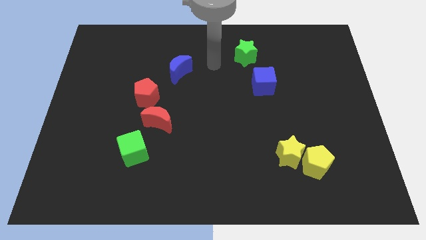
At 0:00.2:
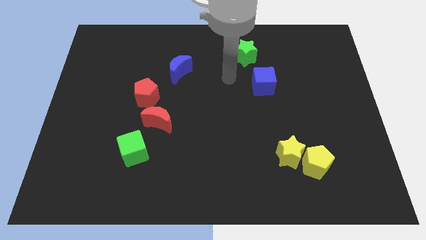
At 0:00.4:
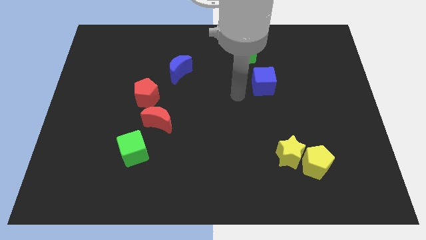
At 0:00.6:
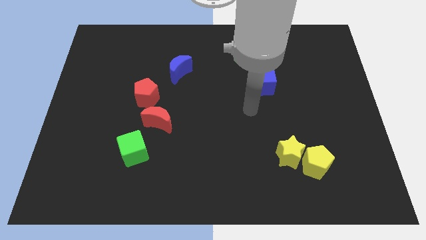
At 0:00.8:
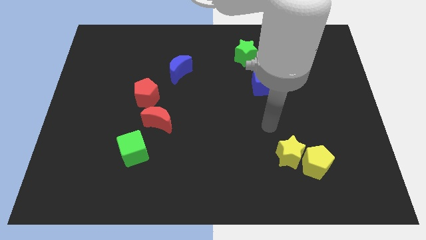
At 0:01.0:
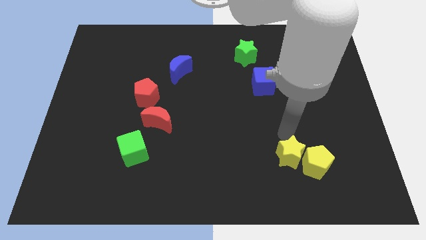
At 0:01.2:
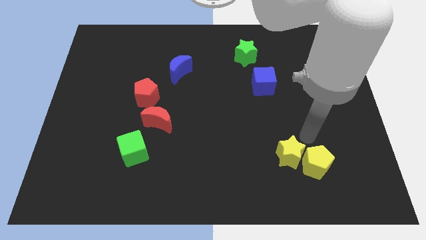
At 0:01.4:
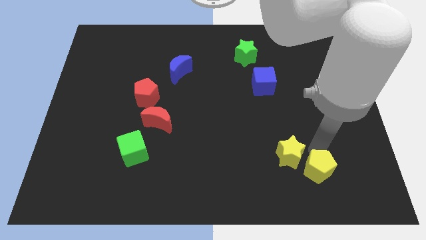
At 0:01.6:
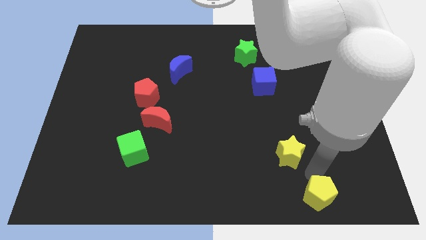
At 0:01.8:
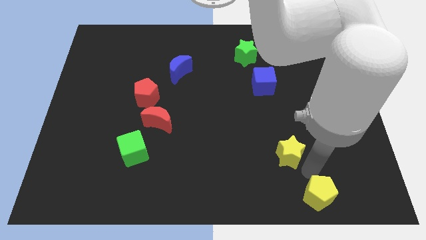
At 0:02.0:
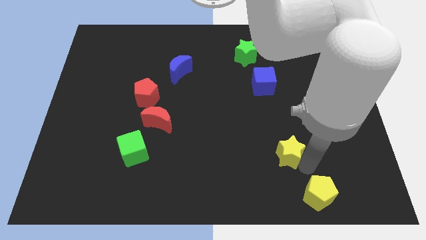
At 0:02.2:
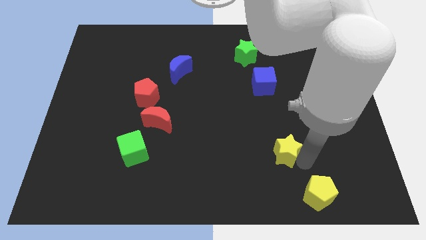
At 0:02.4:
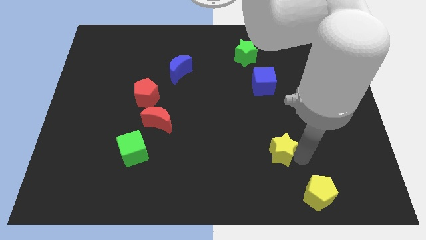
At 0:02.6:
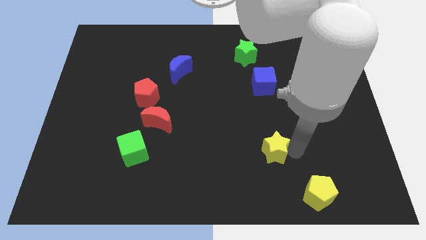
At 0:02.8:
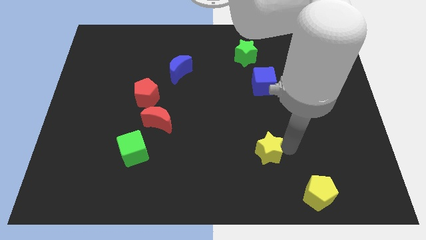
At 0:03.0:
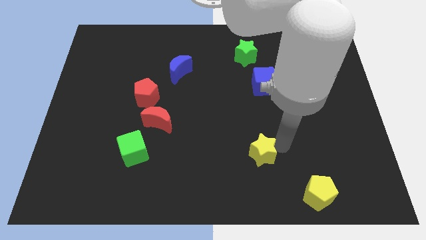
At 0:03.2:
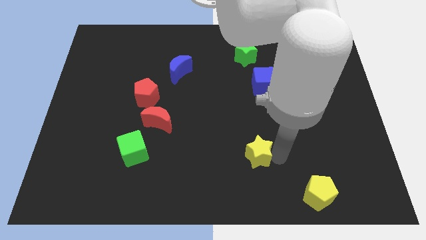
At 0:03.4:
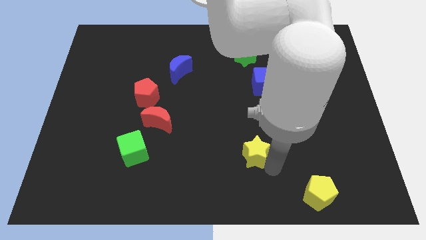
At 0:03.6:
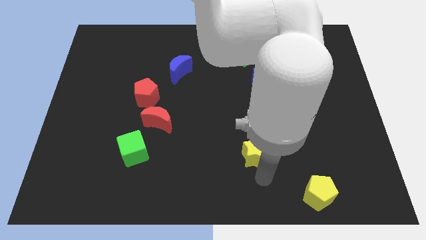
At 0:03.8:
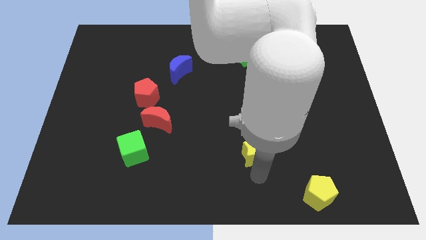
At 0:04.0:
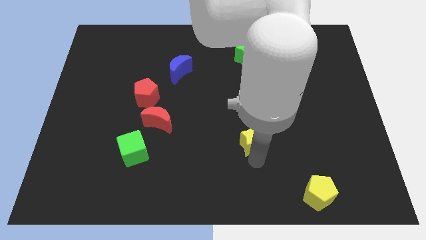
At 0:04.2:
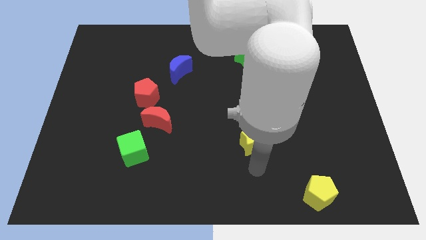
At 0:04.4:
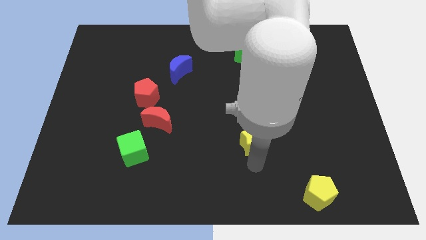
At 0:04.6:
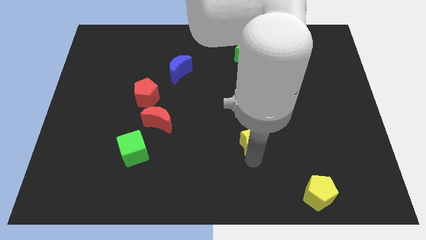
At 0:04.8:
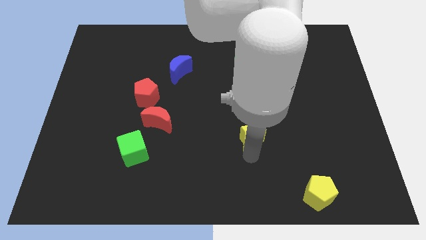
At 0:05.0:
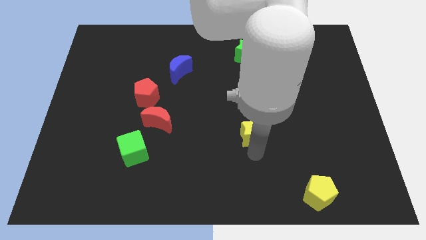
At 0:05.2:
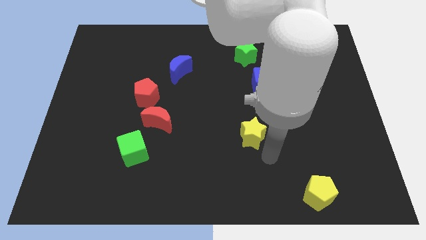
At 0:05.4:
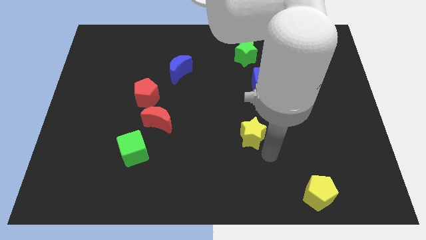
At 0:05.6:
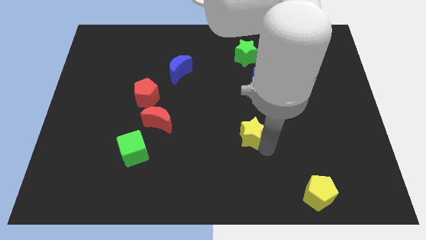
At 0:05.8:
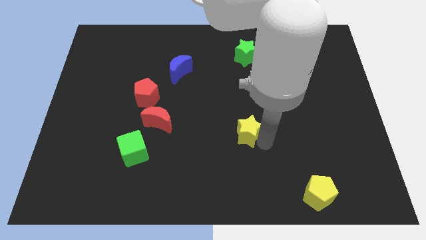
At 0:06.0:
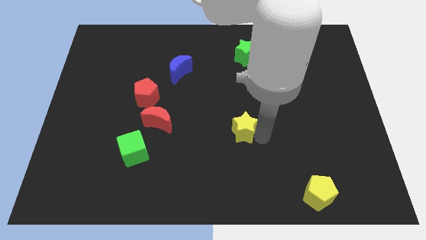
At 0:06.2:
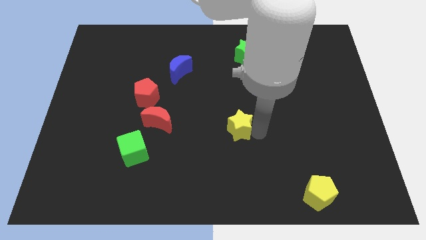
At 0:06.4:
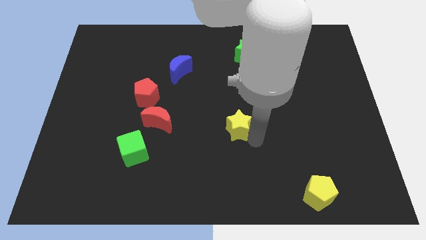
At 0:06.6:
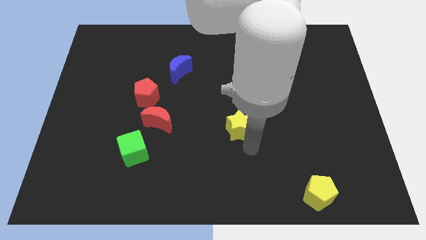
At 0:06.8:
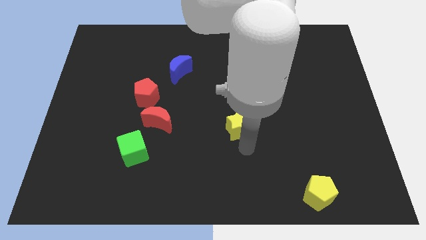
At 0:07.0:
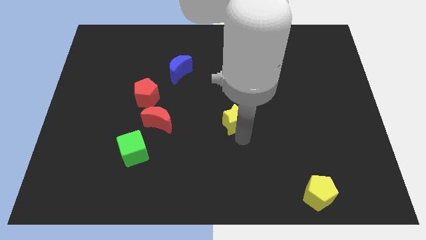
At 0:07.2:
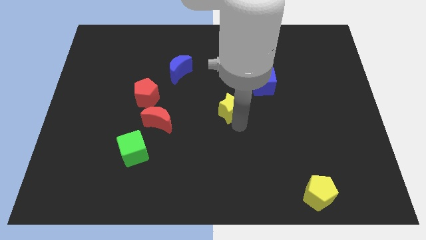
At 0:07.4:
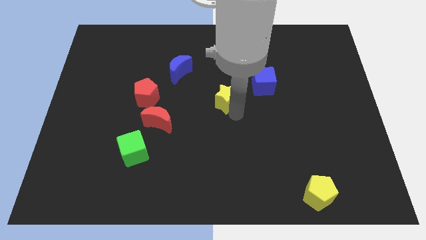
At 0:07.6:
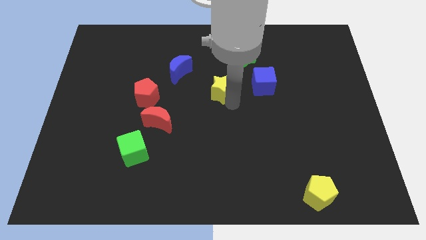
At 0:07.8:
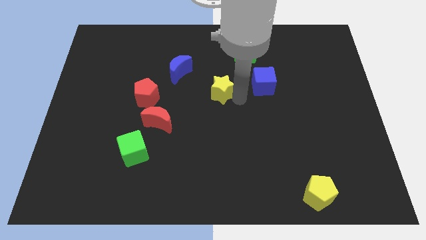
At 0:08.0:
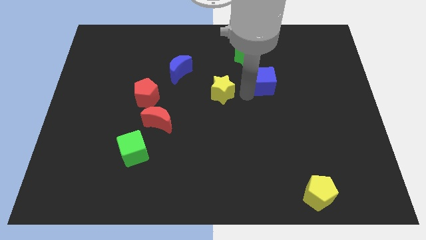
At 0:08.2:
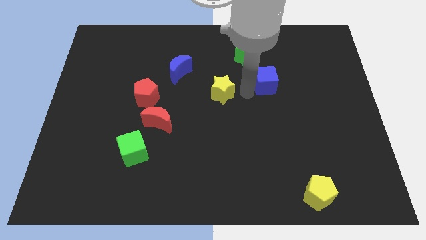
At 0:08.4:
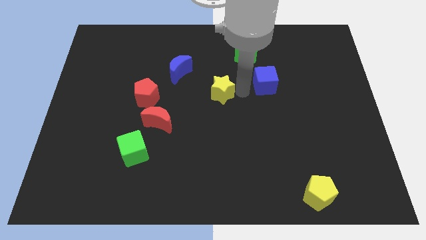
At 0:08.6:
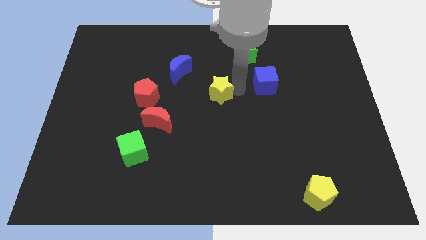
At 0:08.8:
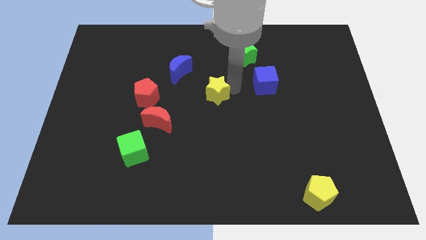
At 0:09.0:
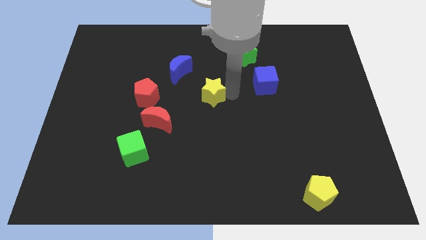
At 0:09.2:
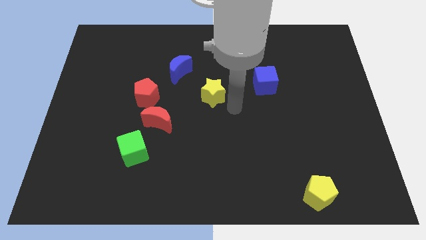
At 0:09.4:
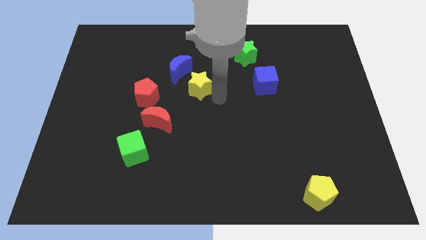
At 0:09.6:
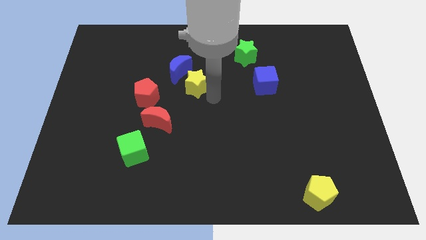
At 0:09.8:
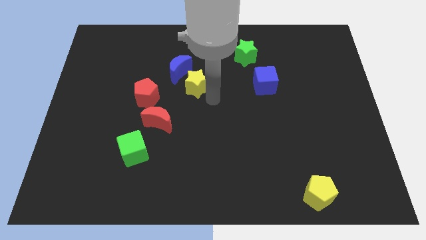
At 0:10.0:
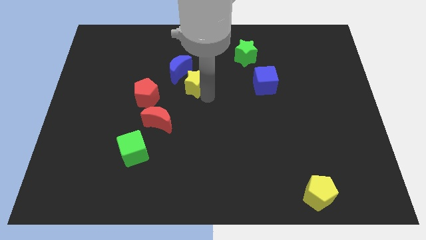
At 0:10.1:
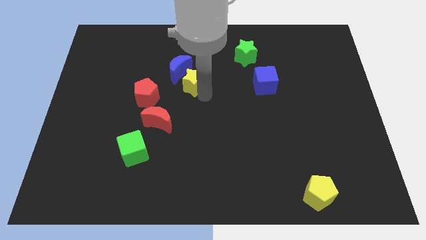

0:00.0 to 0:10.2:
slide the yellow star close to the blue moon

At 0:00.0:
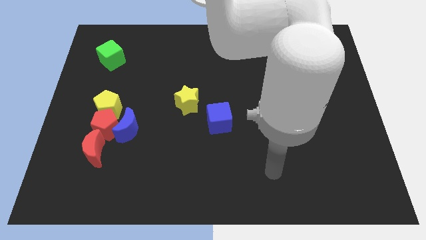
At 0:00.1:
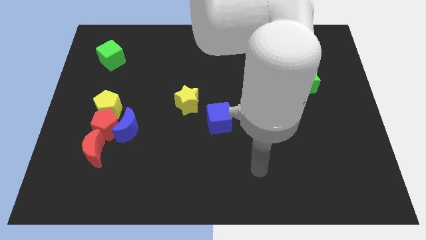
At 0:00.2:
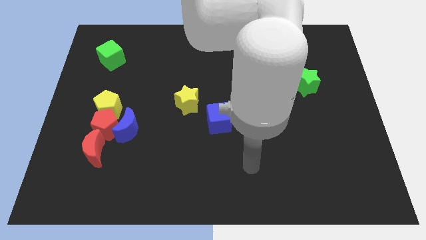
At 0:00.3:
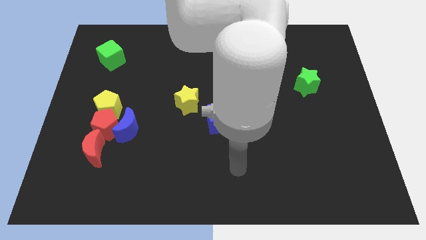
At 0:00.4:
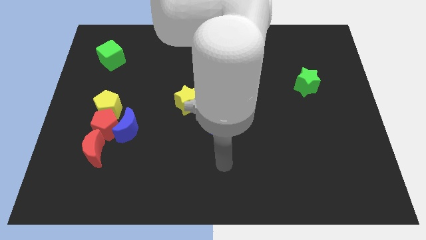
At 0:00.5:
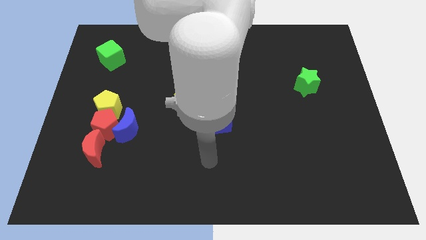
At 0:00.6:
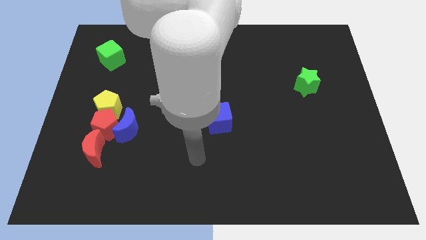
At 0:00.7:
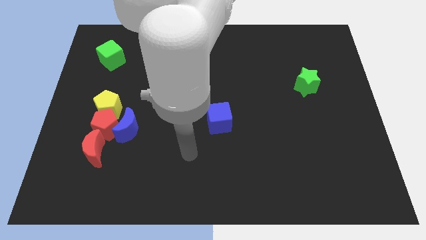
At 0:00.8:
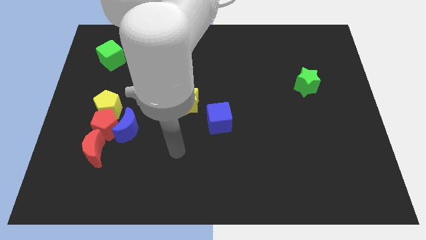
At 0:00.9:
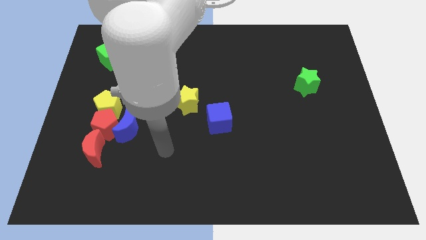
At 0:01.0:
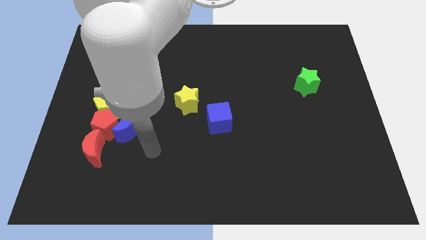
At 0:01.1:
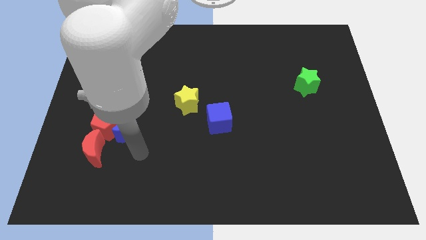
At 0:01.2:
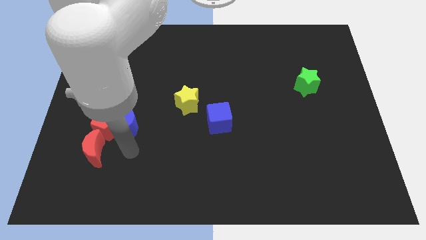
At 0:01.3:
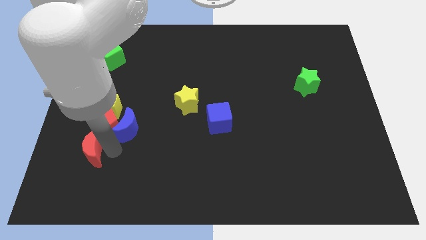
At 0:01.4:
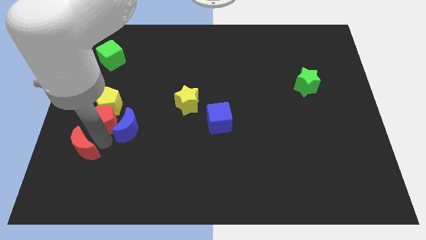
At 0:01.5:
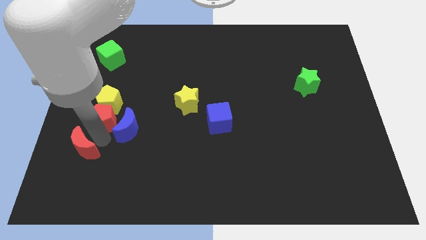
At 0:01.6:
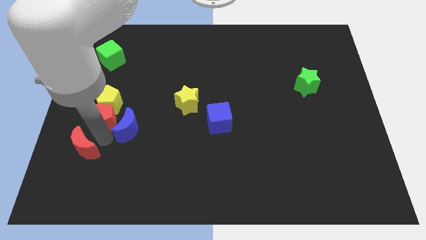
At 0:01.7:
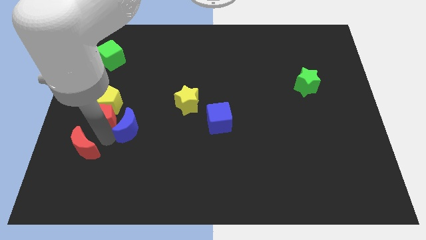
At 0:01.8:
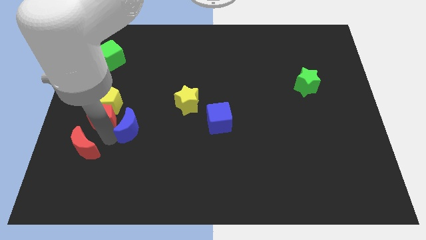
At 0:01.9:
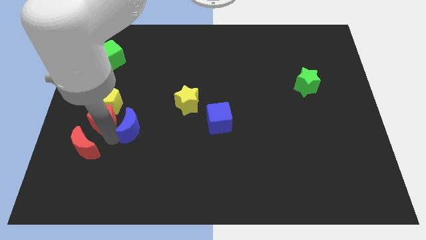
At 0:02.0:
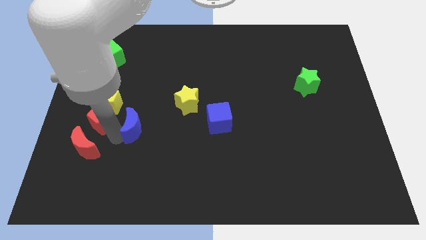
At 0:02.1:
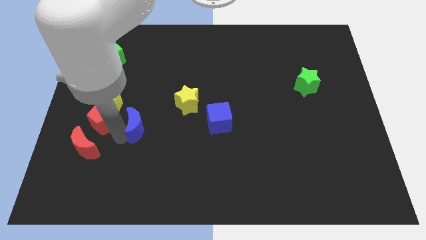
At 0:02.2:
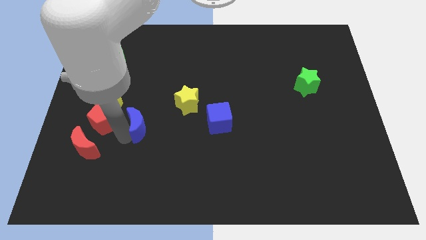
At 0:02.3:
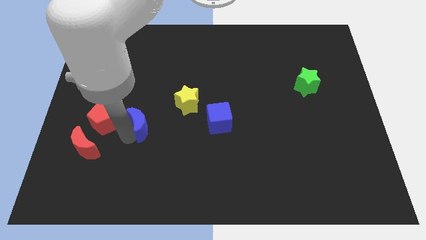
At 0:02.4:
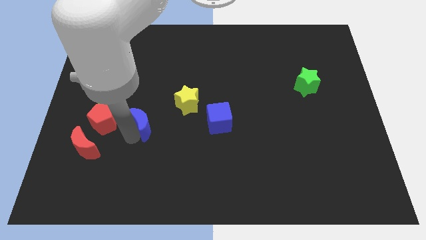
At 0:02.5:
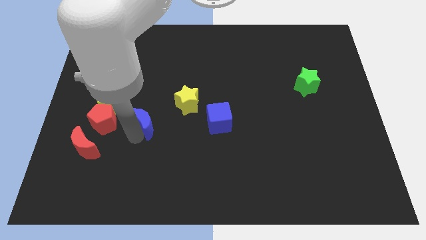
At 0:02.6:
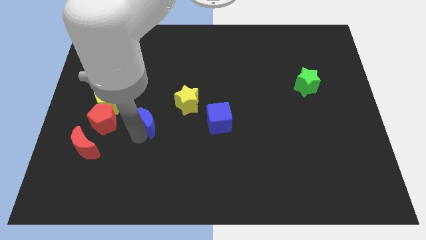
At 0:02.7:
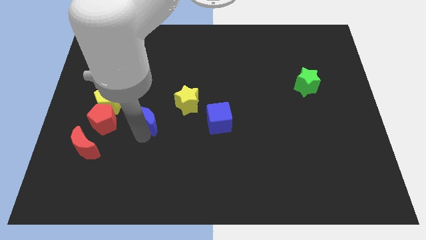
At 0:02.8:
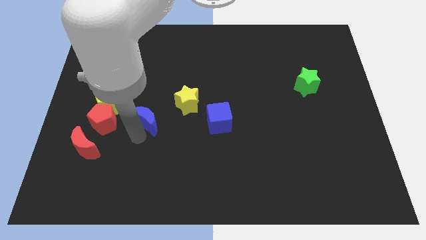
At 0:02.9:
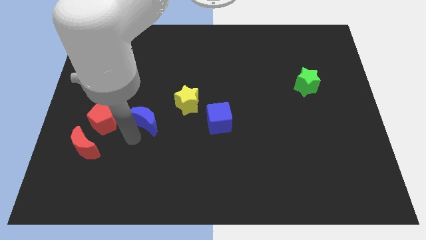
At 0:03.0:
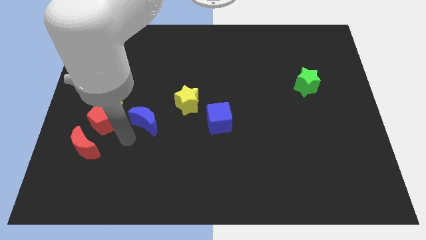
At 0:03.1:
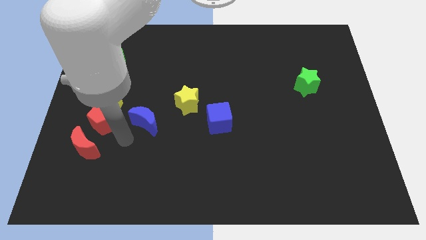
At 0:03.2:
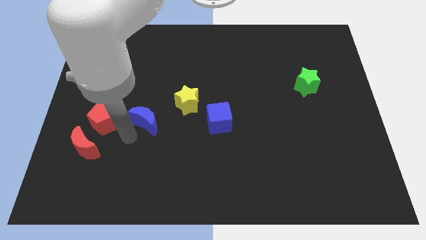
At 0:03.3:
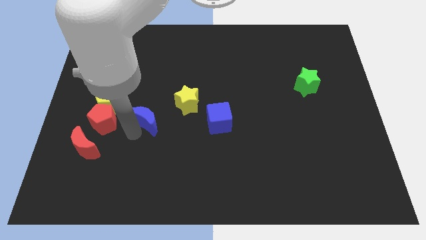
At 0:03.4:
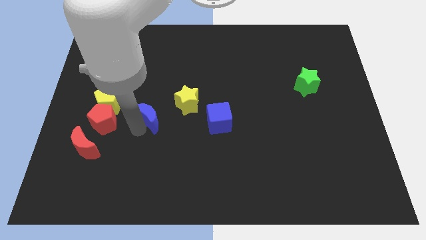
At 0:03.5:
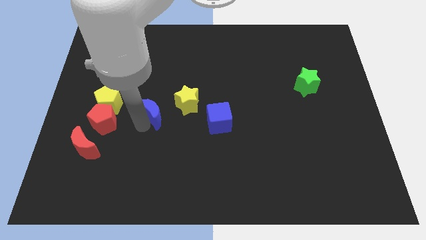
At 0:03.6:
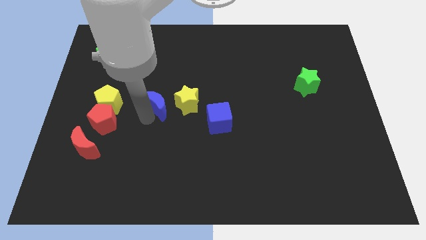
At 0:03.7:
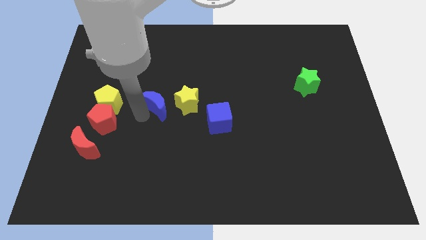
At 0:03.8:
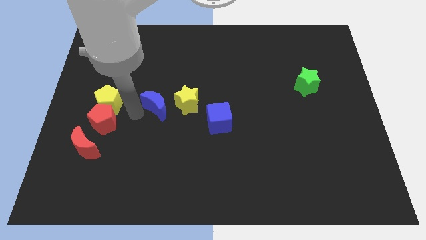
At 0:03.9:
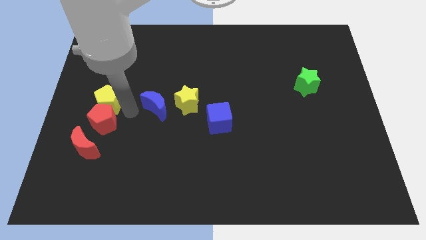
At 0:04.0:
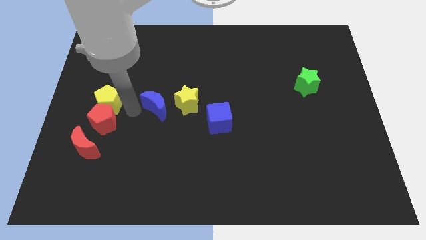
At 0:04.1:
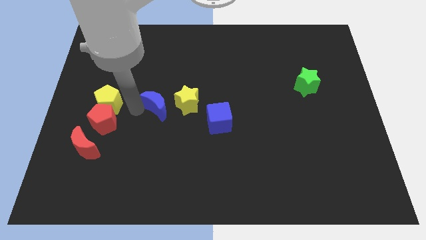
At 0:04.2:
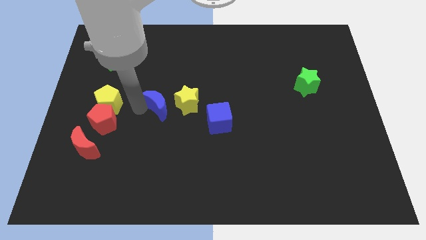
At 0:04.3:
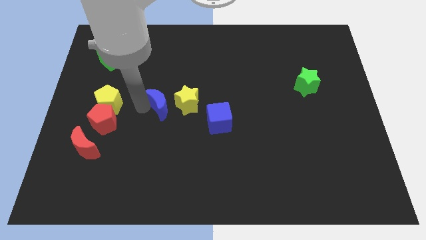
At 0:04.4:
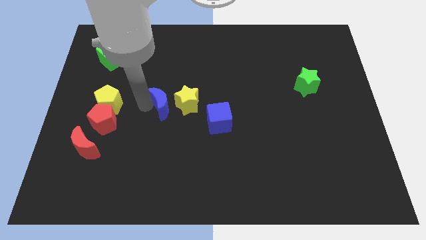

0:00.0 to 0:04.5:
move the blue moon to the yellow star
